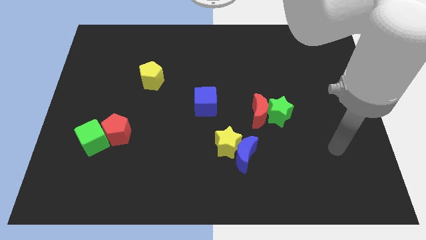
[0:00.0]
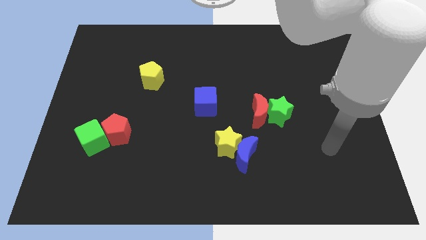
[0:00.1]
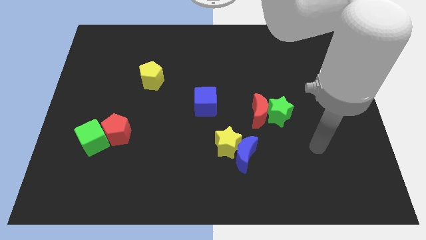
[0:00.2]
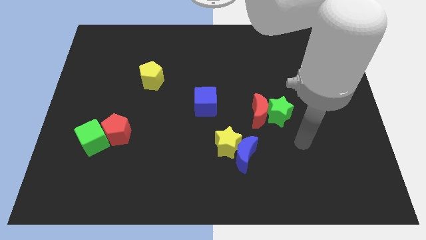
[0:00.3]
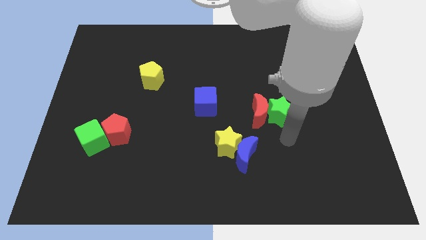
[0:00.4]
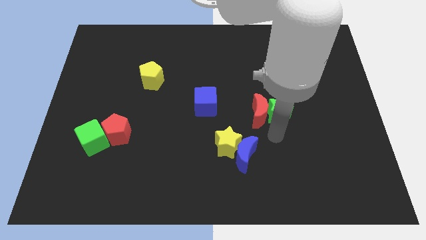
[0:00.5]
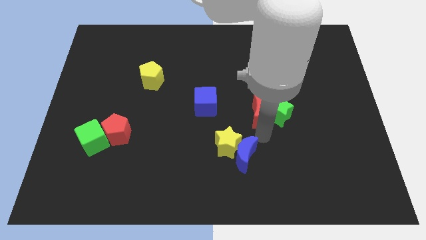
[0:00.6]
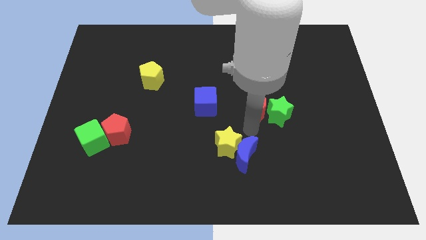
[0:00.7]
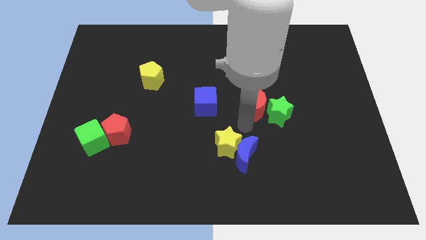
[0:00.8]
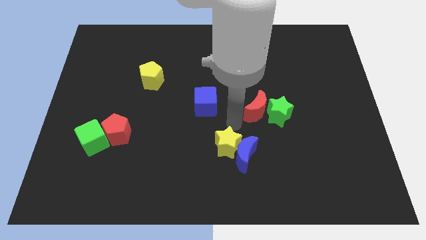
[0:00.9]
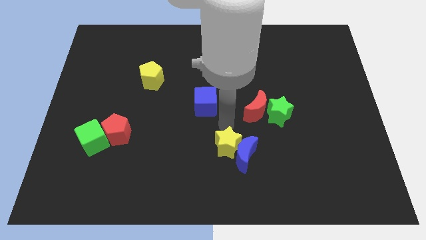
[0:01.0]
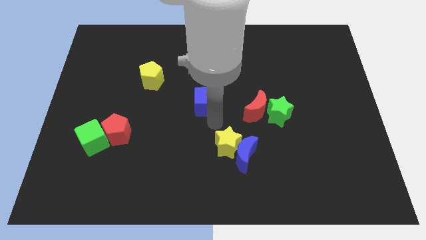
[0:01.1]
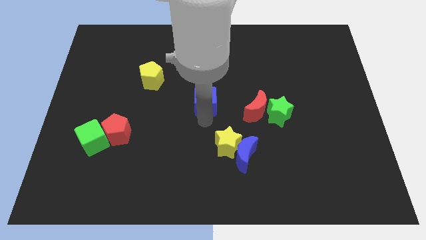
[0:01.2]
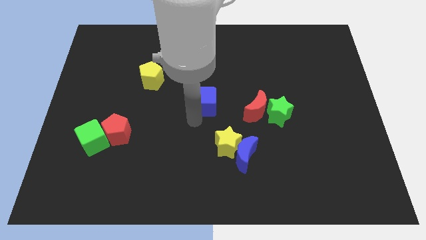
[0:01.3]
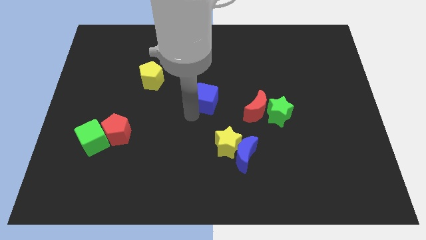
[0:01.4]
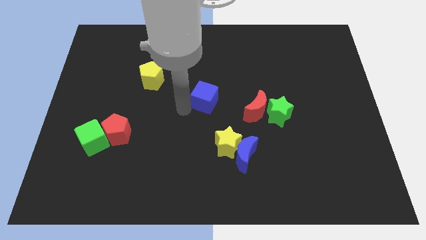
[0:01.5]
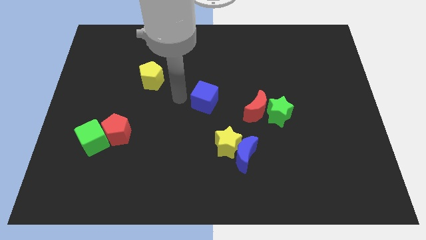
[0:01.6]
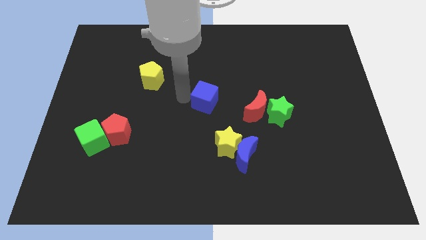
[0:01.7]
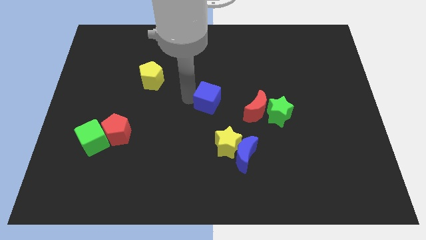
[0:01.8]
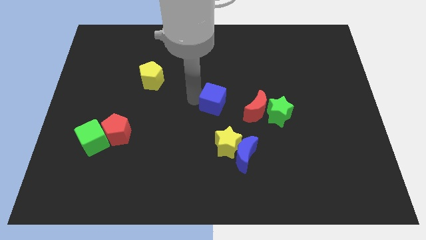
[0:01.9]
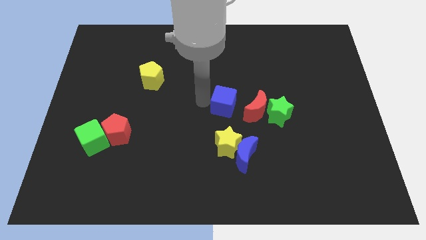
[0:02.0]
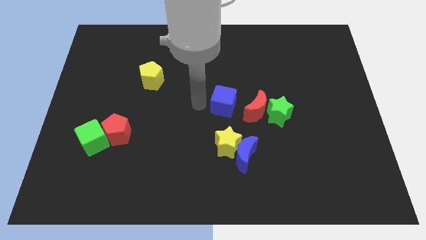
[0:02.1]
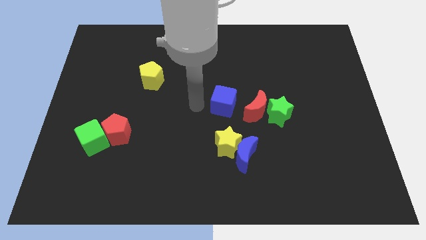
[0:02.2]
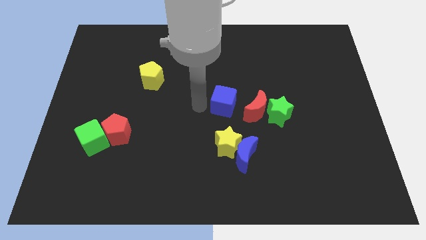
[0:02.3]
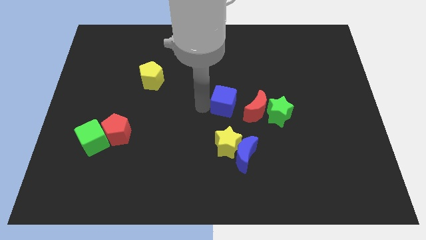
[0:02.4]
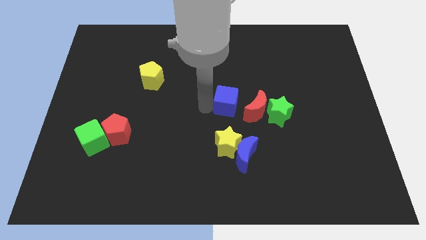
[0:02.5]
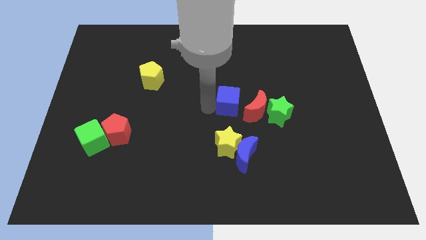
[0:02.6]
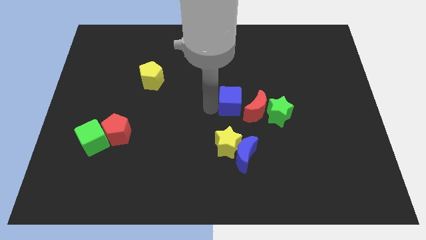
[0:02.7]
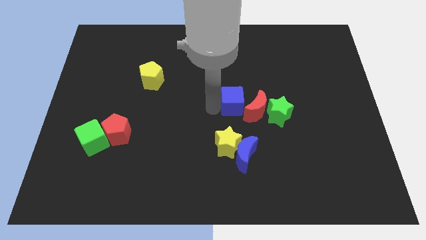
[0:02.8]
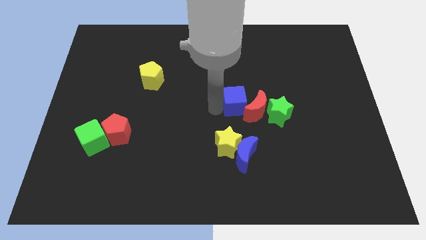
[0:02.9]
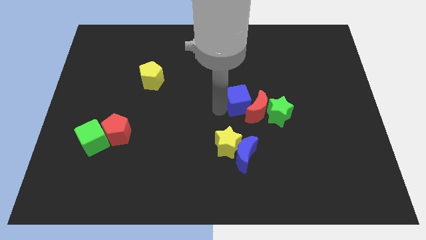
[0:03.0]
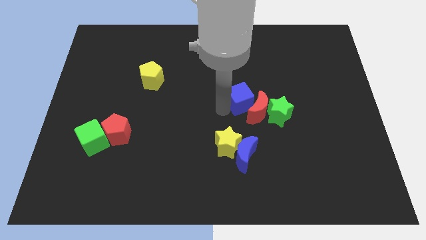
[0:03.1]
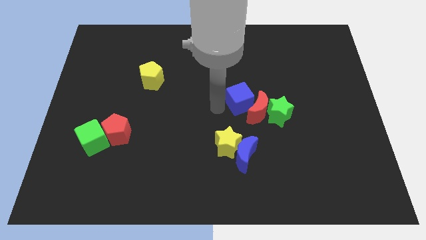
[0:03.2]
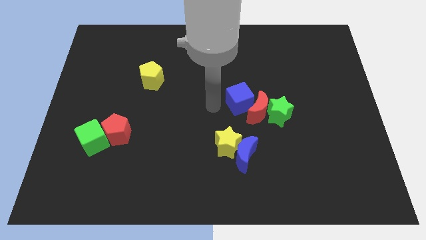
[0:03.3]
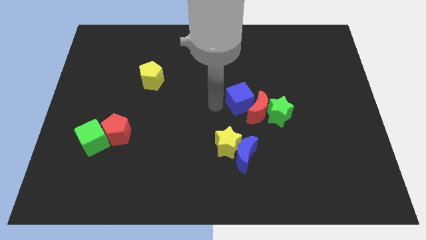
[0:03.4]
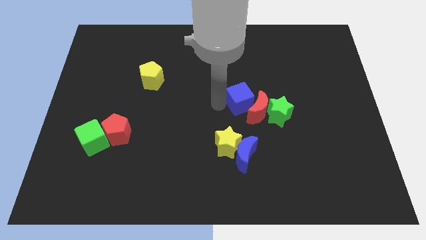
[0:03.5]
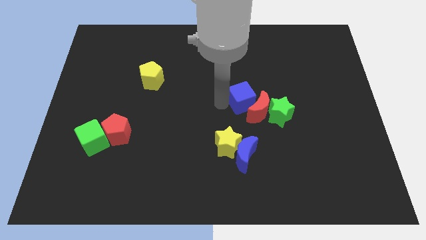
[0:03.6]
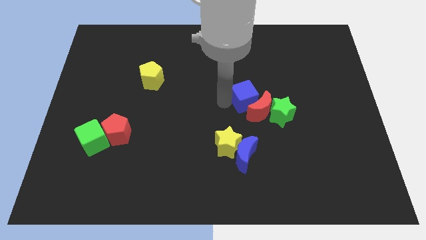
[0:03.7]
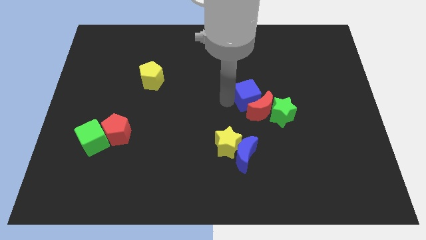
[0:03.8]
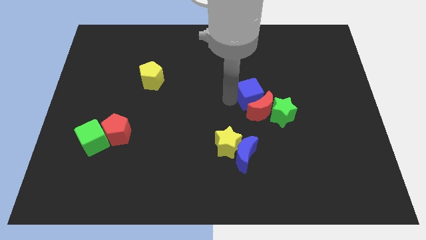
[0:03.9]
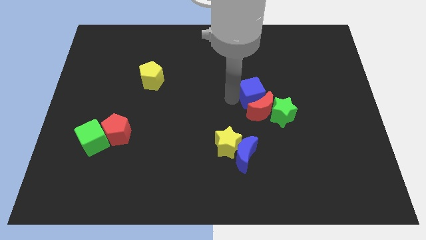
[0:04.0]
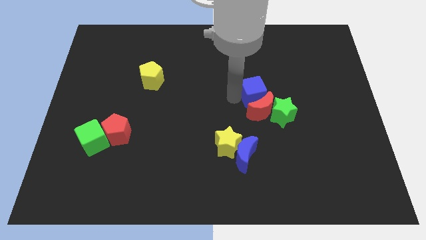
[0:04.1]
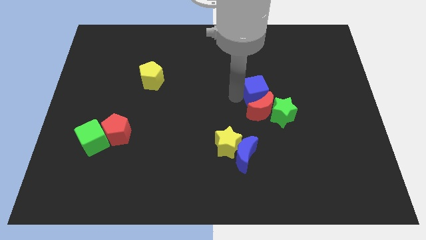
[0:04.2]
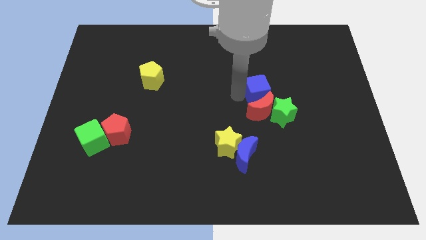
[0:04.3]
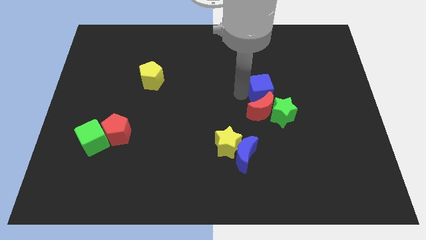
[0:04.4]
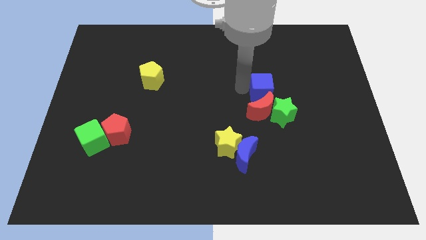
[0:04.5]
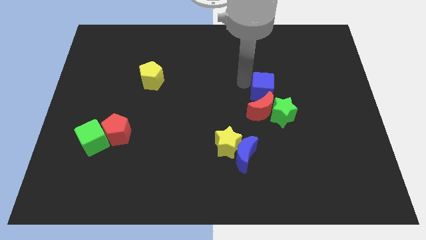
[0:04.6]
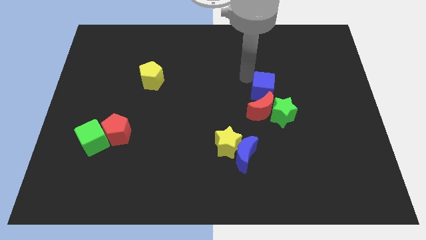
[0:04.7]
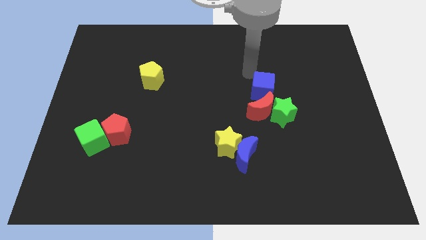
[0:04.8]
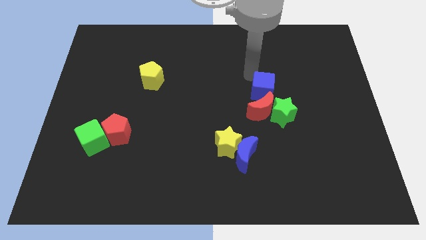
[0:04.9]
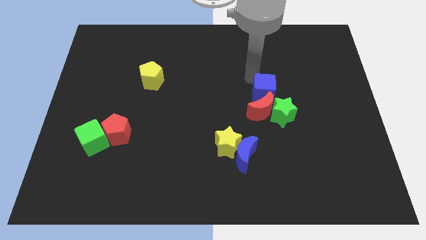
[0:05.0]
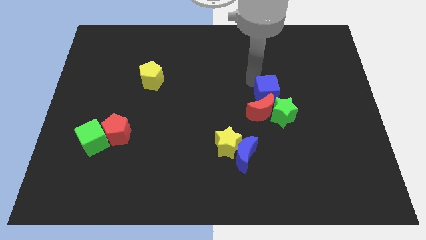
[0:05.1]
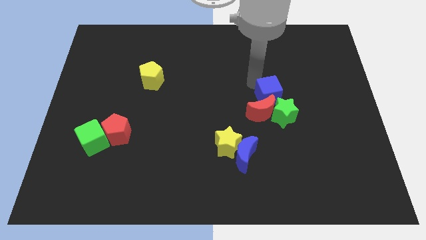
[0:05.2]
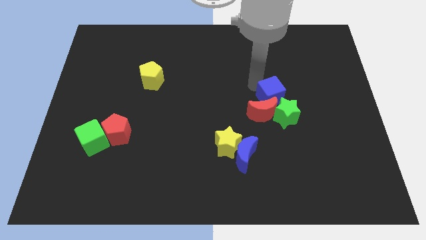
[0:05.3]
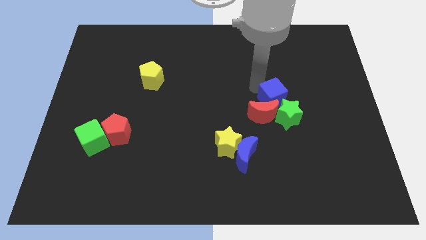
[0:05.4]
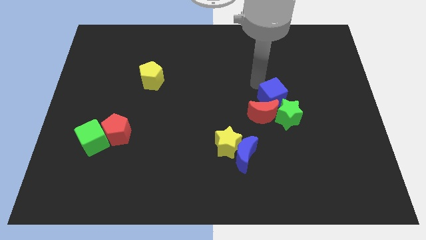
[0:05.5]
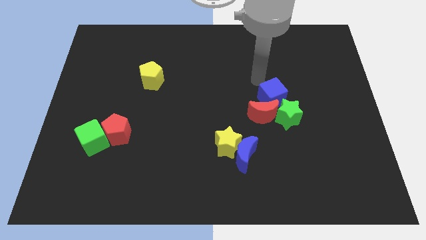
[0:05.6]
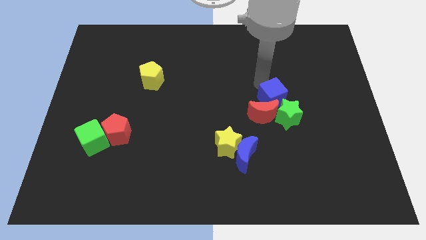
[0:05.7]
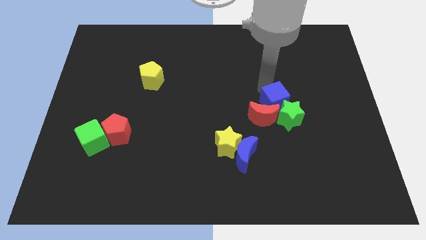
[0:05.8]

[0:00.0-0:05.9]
push the blue cube towards the green star

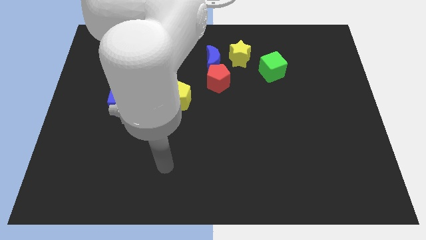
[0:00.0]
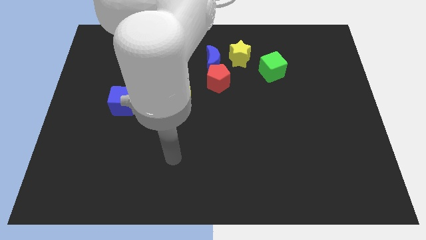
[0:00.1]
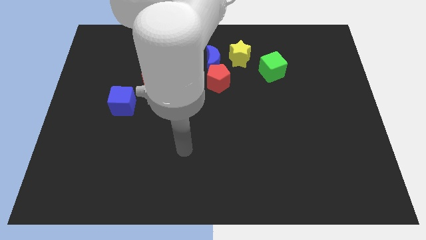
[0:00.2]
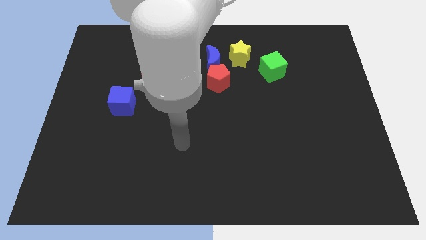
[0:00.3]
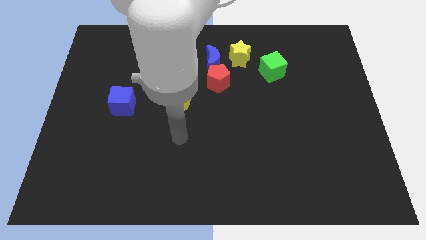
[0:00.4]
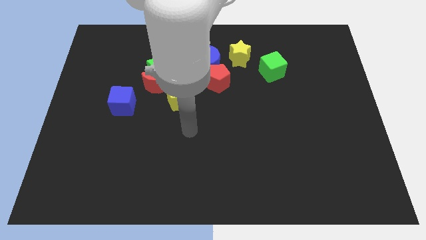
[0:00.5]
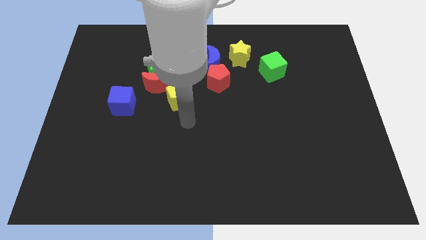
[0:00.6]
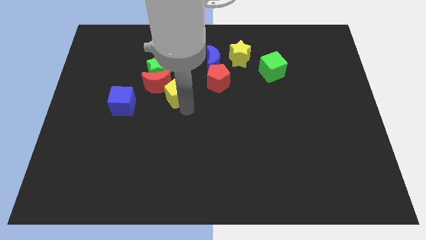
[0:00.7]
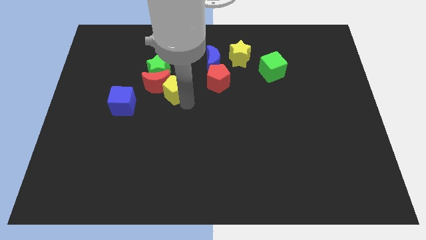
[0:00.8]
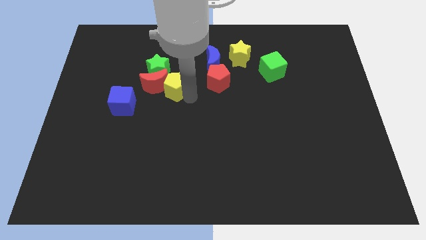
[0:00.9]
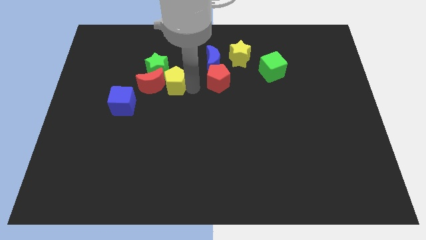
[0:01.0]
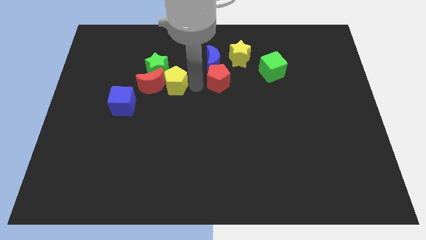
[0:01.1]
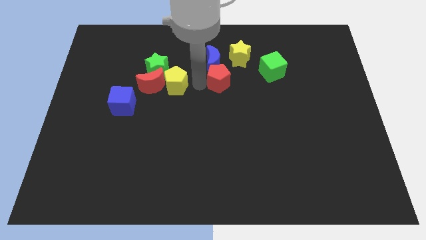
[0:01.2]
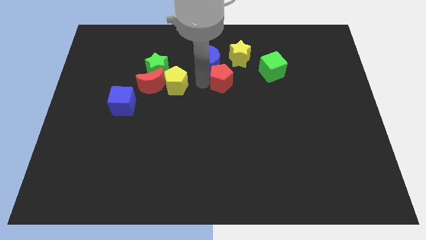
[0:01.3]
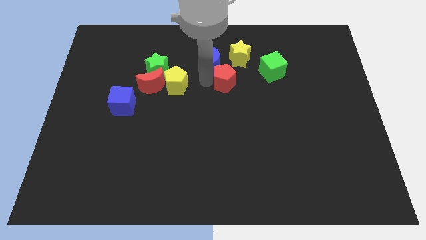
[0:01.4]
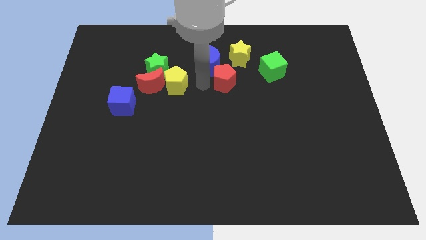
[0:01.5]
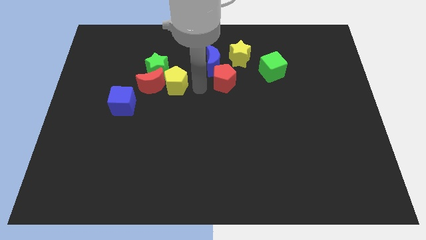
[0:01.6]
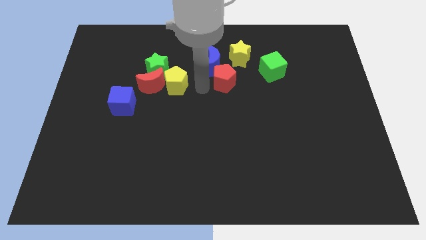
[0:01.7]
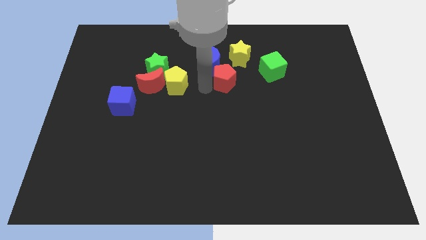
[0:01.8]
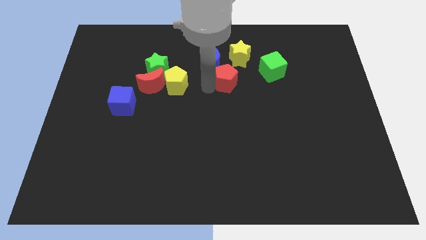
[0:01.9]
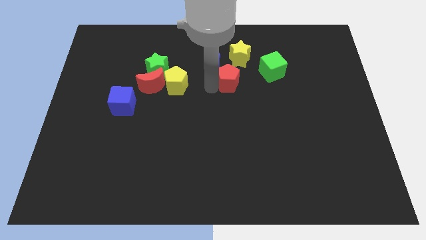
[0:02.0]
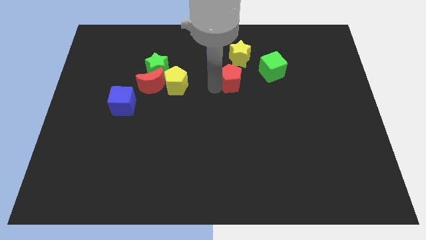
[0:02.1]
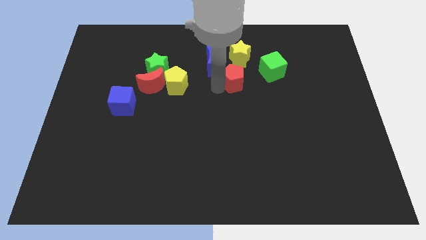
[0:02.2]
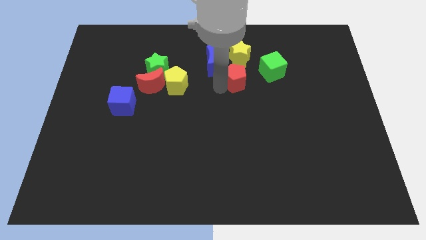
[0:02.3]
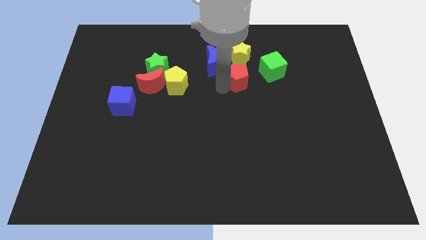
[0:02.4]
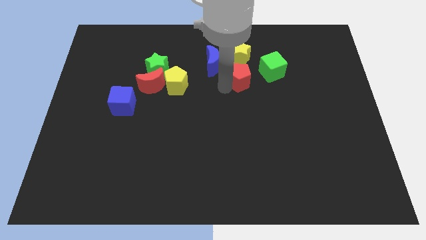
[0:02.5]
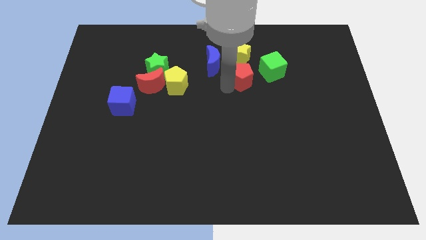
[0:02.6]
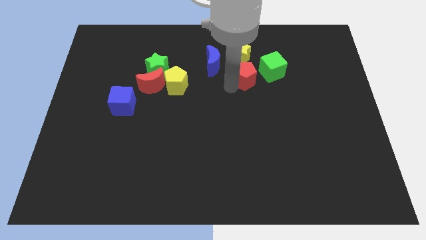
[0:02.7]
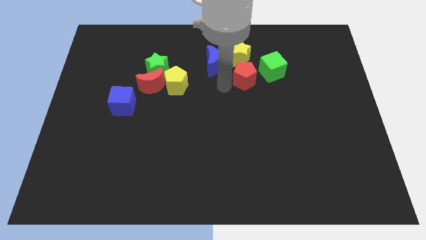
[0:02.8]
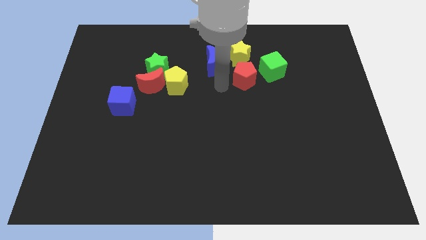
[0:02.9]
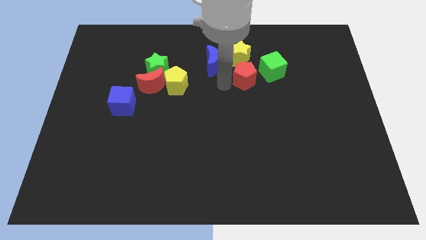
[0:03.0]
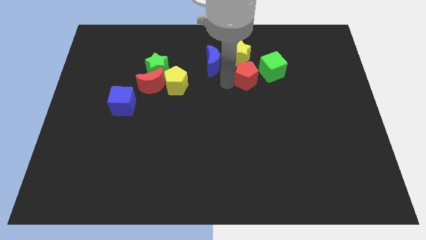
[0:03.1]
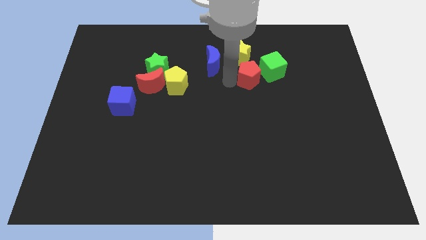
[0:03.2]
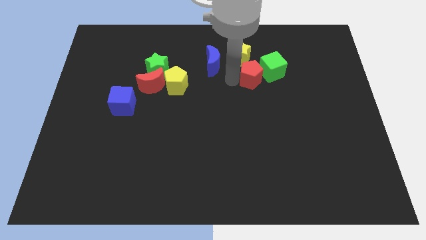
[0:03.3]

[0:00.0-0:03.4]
put the red pentagon towards the green cube
